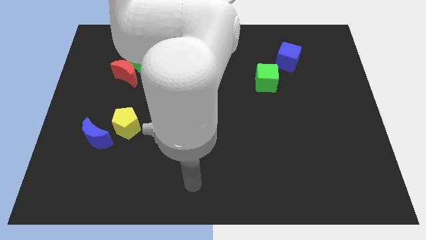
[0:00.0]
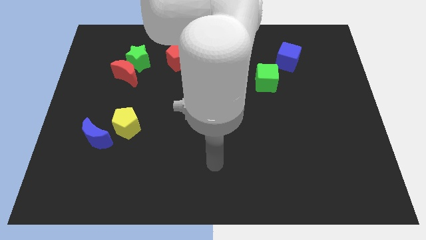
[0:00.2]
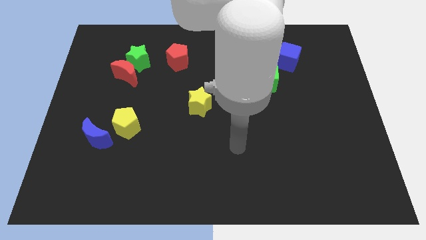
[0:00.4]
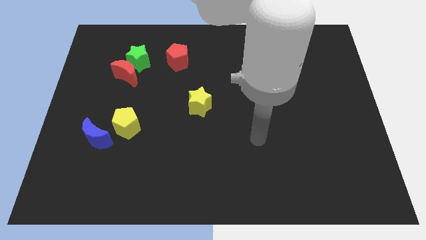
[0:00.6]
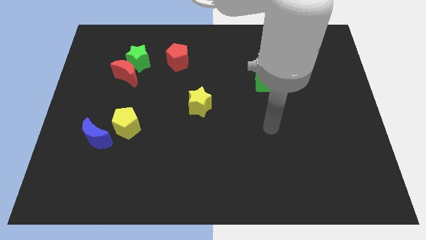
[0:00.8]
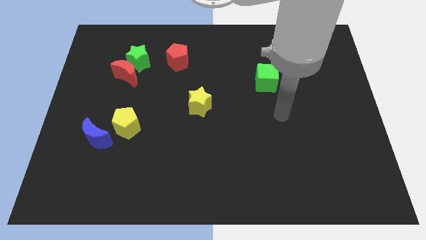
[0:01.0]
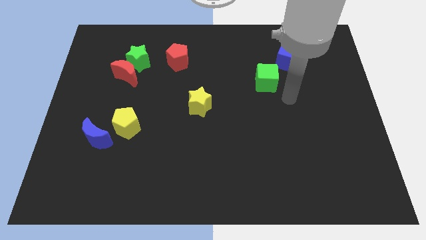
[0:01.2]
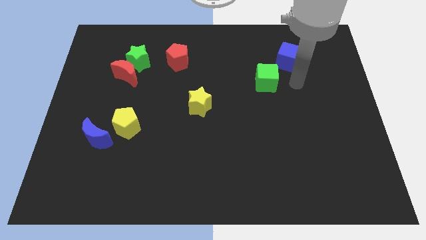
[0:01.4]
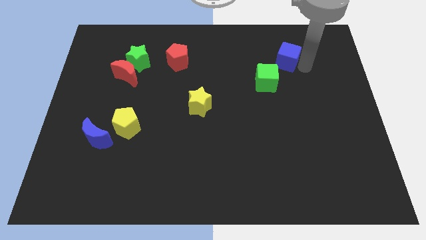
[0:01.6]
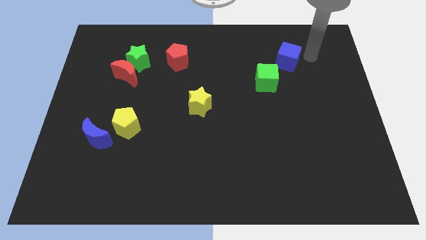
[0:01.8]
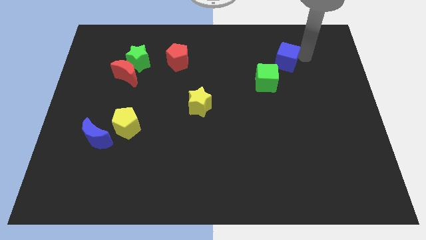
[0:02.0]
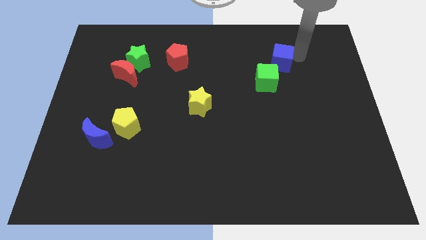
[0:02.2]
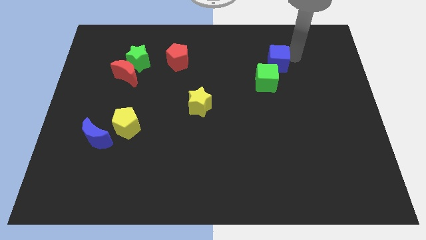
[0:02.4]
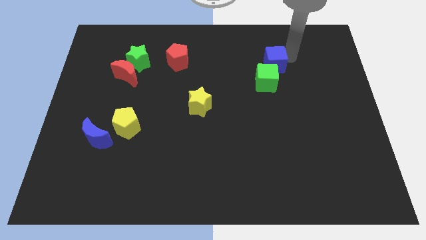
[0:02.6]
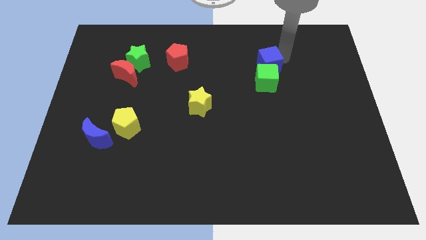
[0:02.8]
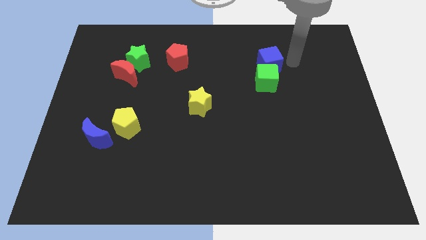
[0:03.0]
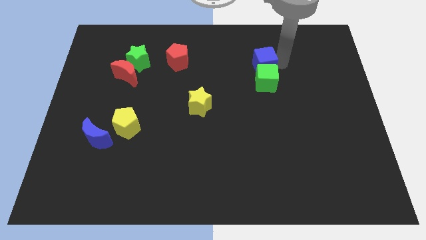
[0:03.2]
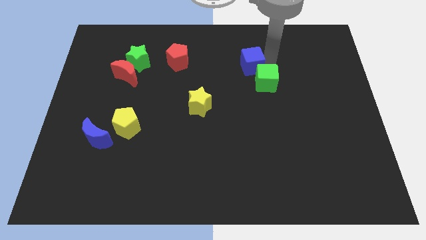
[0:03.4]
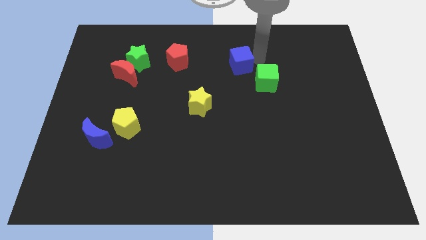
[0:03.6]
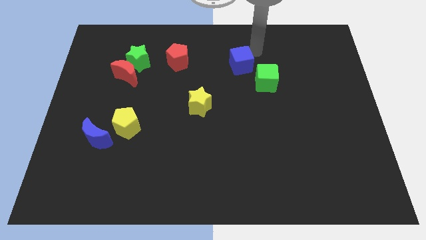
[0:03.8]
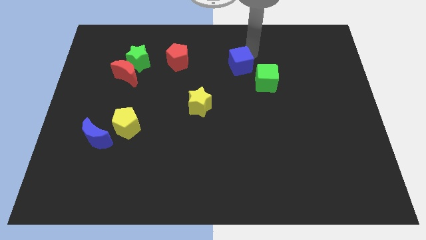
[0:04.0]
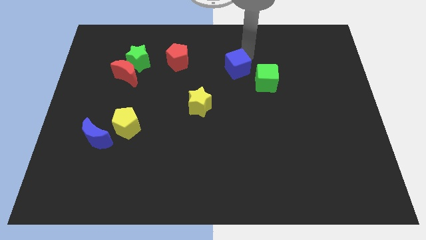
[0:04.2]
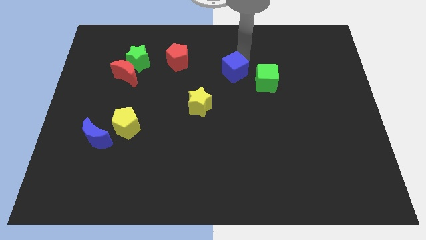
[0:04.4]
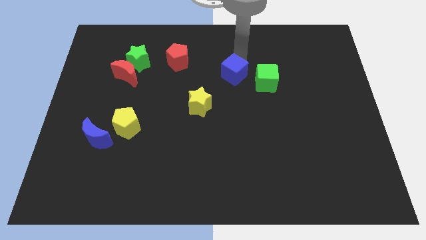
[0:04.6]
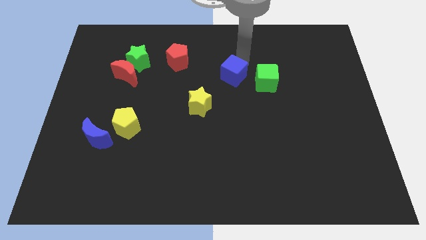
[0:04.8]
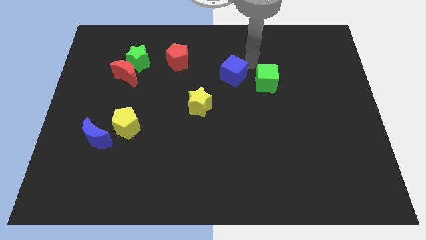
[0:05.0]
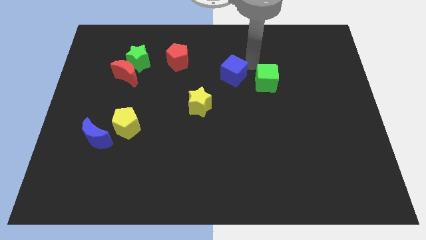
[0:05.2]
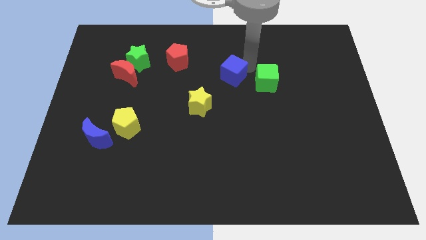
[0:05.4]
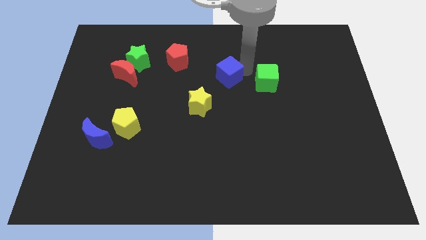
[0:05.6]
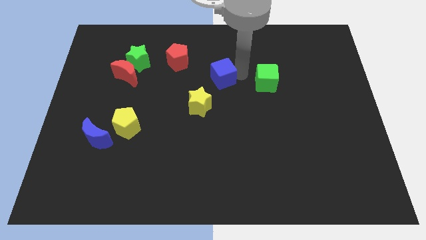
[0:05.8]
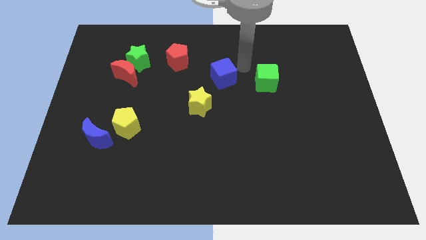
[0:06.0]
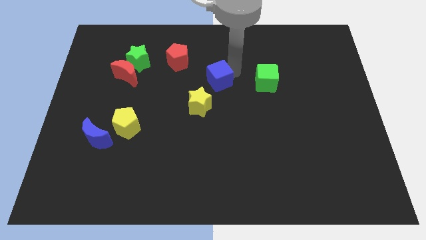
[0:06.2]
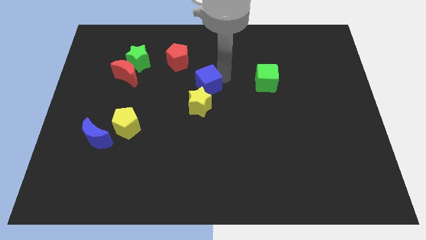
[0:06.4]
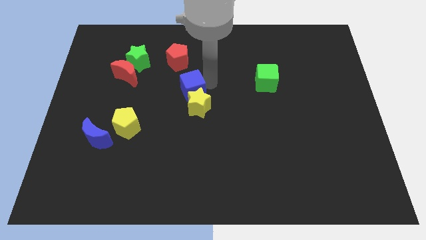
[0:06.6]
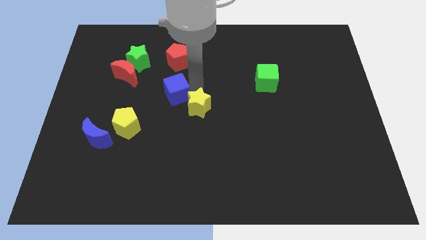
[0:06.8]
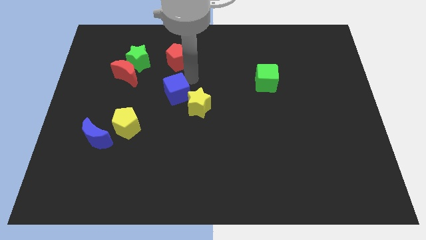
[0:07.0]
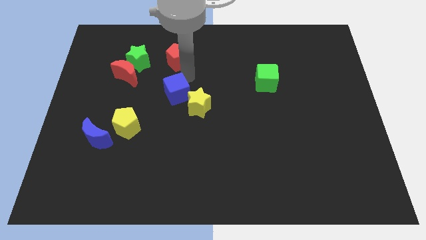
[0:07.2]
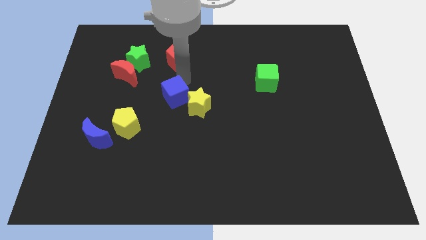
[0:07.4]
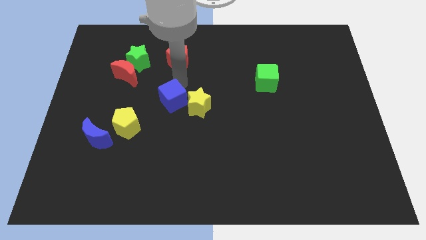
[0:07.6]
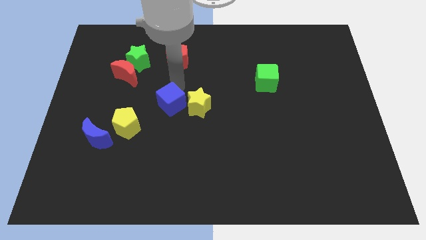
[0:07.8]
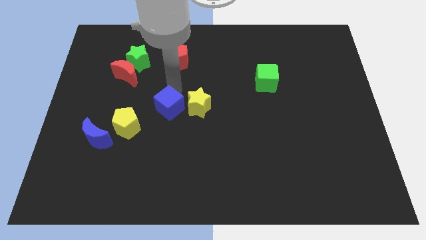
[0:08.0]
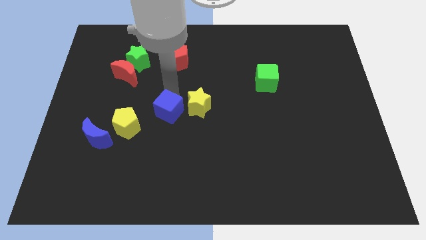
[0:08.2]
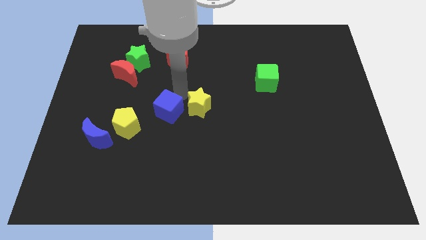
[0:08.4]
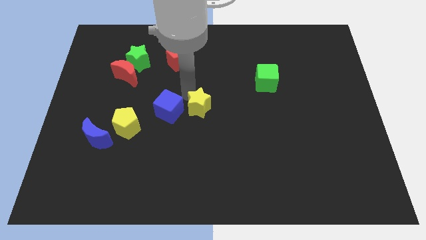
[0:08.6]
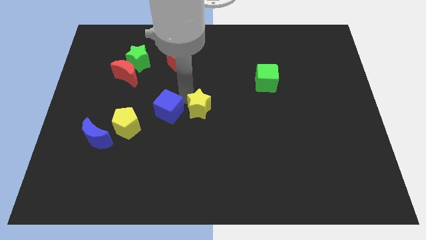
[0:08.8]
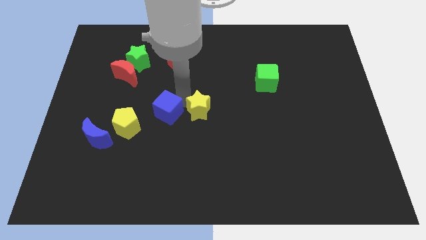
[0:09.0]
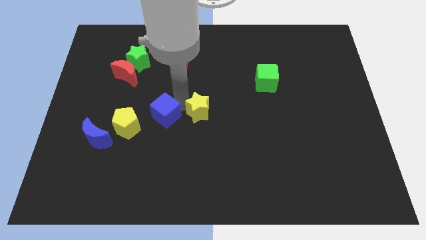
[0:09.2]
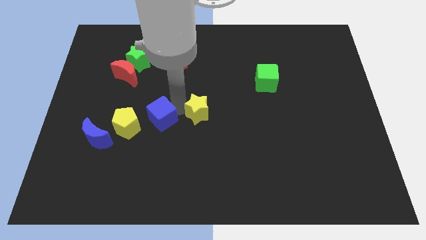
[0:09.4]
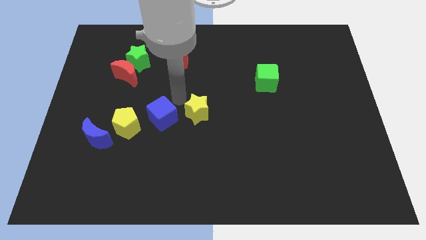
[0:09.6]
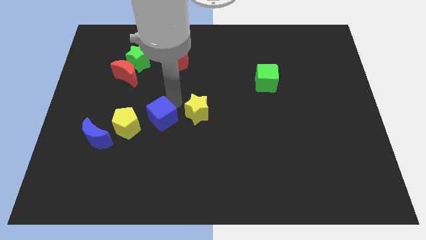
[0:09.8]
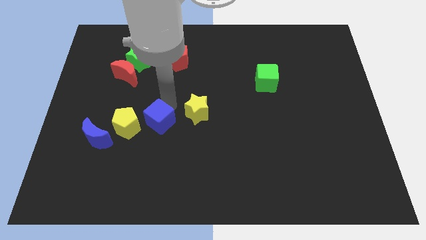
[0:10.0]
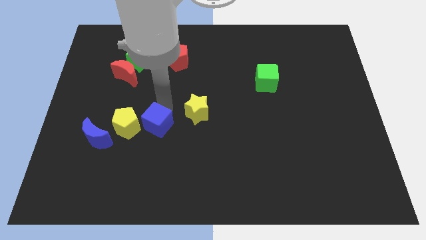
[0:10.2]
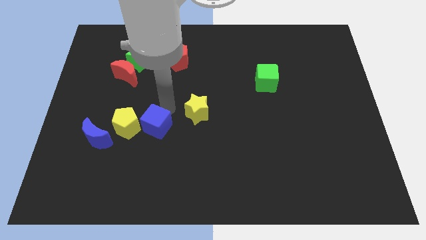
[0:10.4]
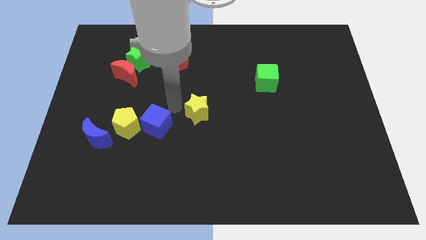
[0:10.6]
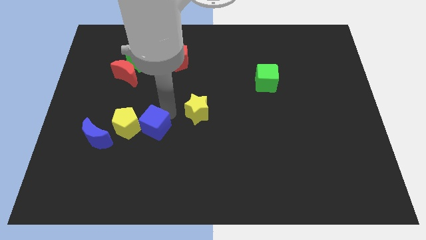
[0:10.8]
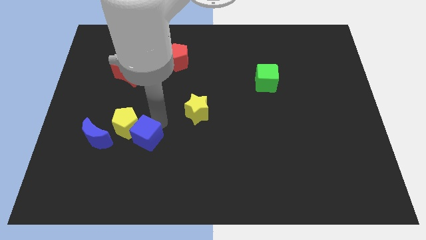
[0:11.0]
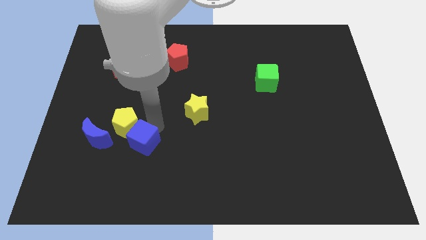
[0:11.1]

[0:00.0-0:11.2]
push the blue cube below the yellow pentagon

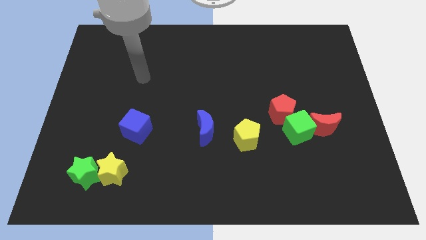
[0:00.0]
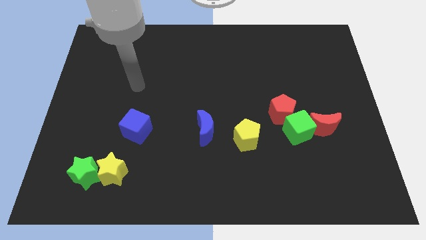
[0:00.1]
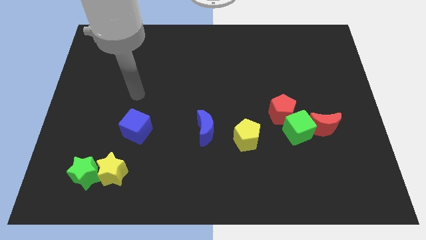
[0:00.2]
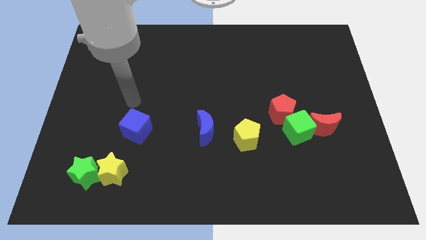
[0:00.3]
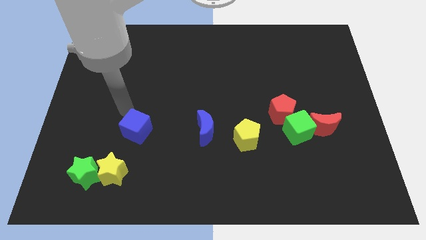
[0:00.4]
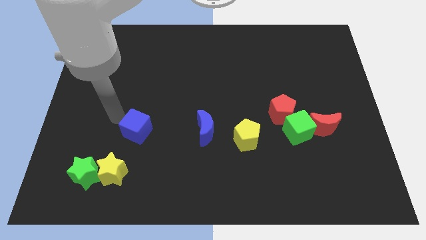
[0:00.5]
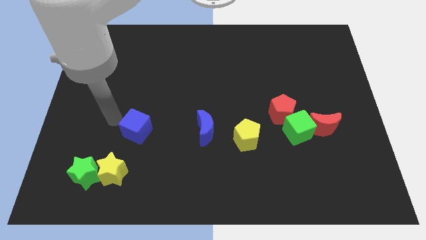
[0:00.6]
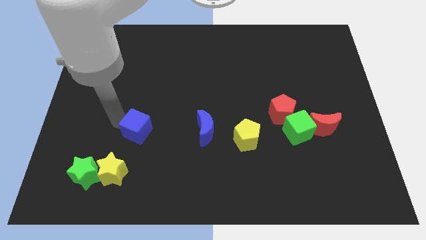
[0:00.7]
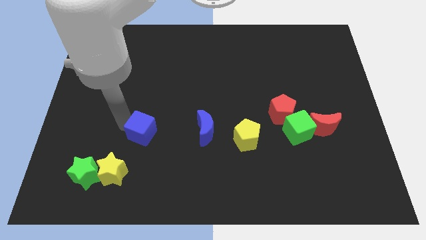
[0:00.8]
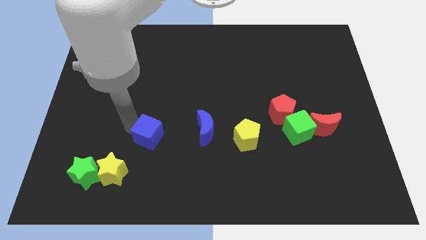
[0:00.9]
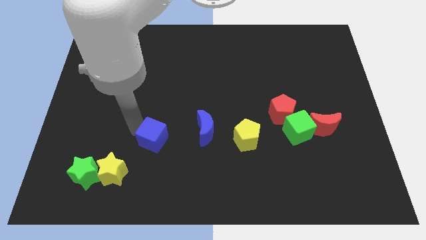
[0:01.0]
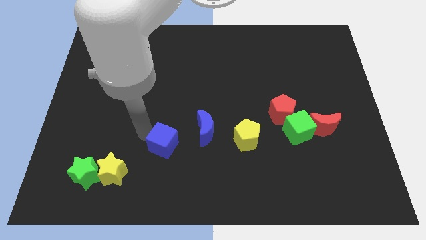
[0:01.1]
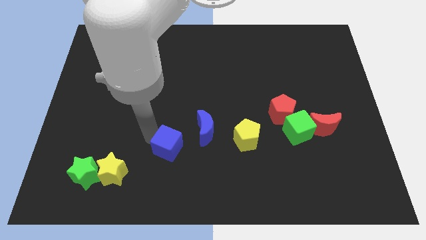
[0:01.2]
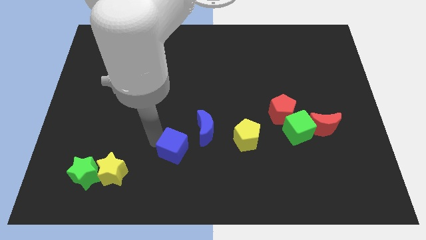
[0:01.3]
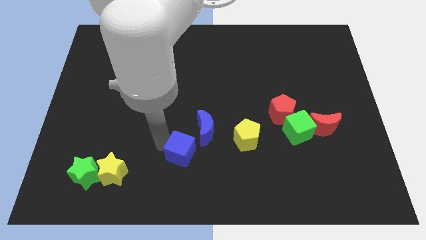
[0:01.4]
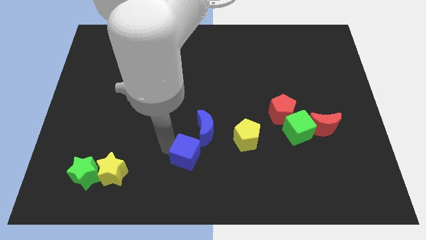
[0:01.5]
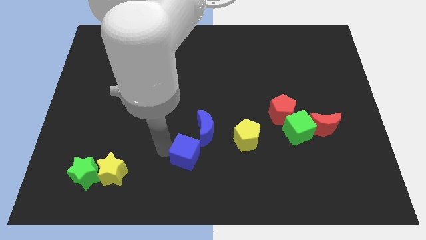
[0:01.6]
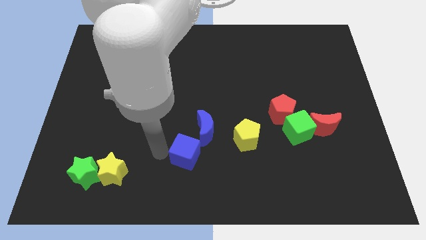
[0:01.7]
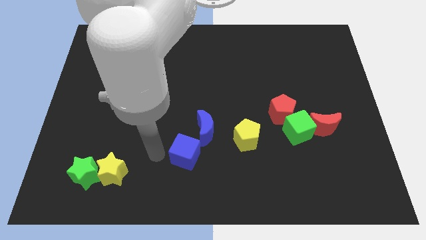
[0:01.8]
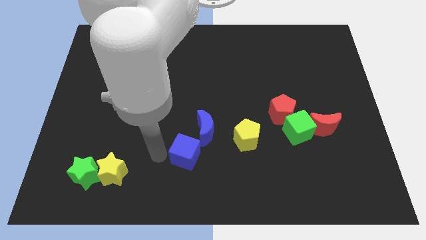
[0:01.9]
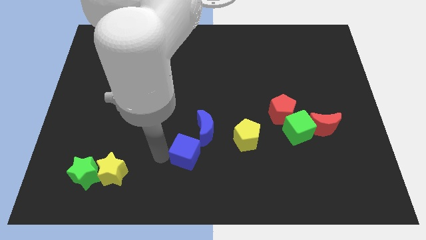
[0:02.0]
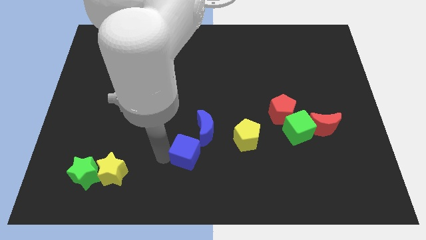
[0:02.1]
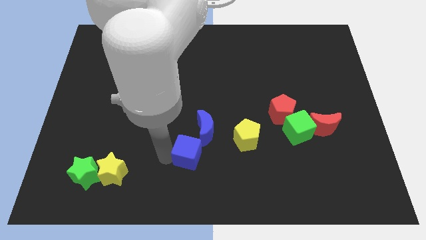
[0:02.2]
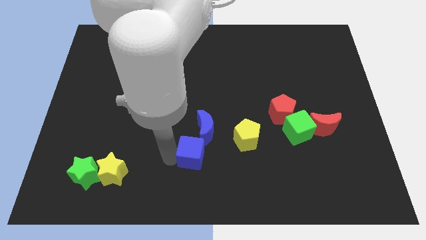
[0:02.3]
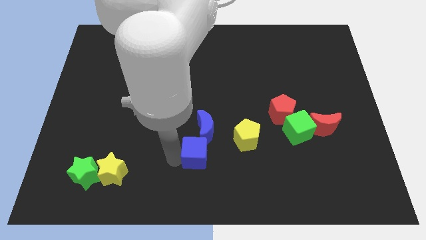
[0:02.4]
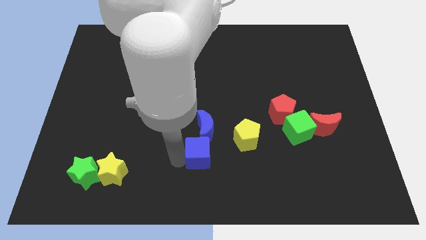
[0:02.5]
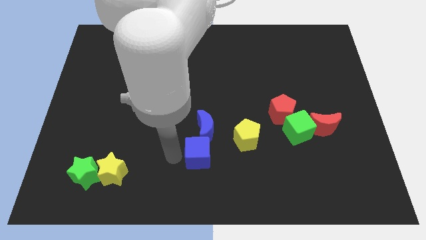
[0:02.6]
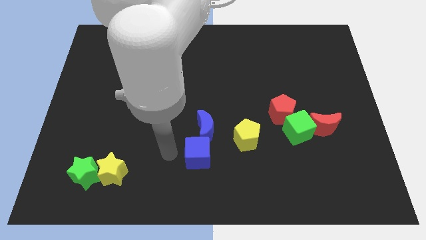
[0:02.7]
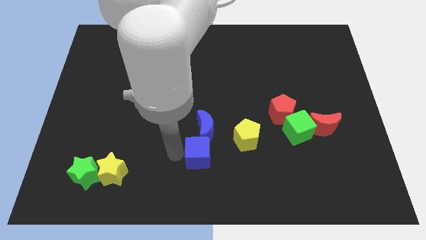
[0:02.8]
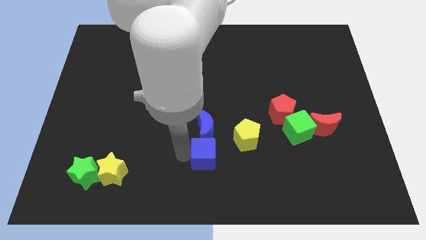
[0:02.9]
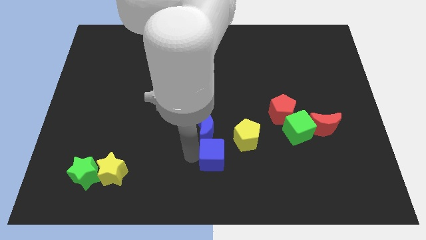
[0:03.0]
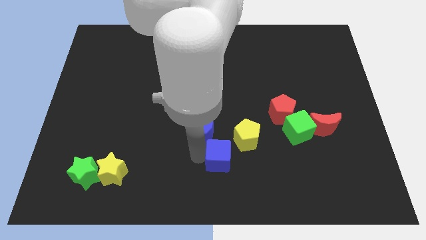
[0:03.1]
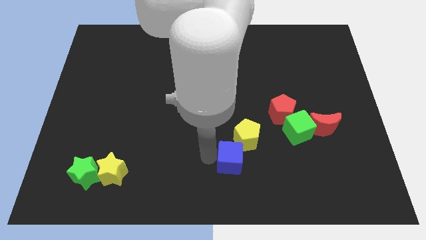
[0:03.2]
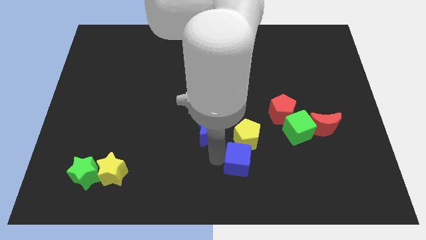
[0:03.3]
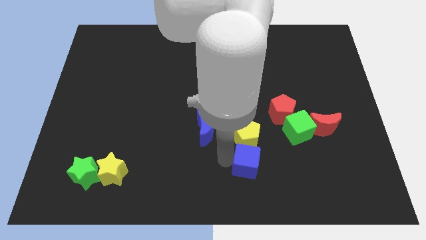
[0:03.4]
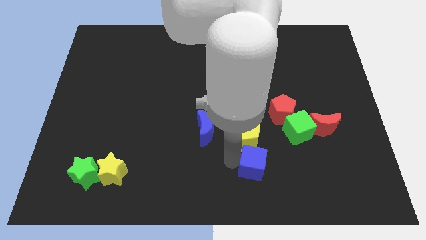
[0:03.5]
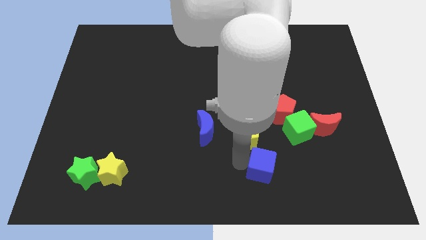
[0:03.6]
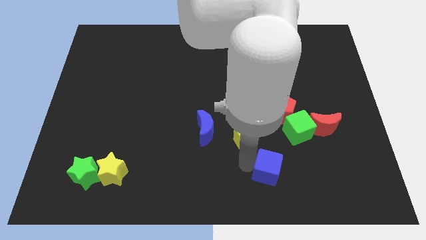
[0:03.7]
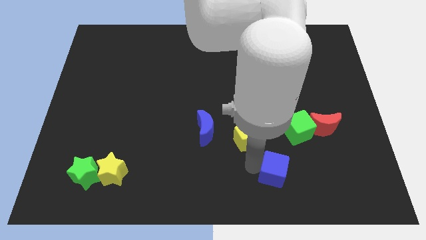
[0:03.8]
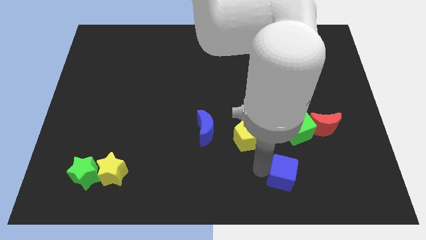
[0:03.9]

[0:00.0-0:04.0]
push the blue cube to the bottom side of the green cube
